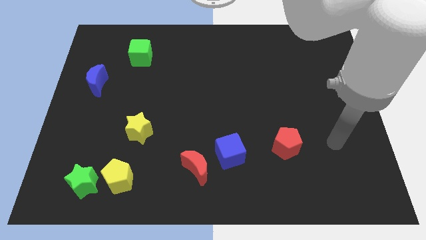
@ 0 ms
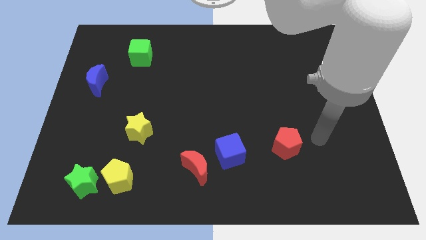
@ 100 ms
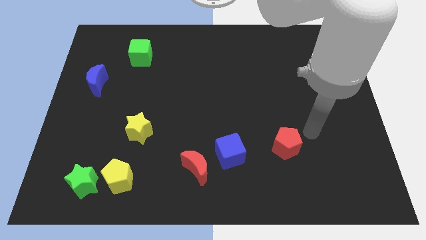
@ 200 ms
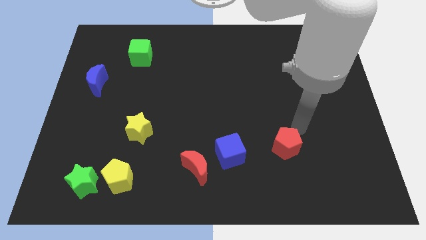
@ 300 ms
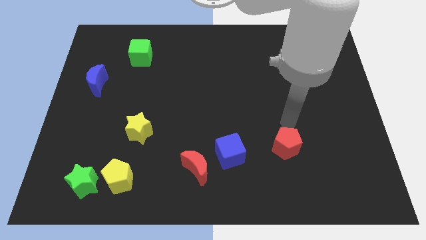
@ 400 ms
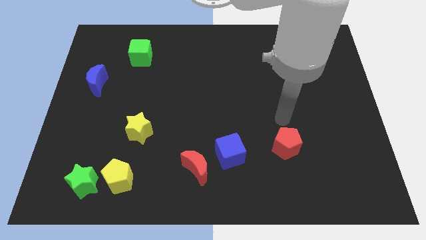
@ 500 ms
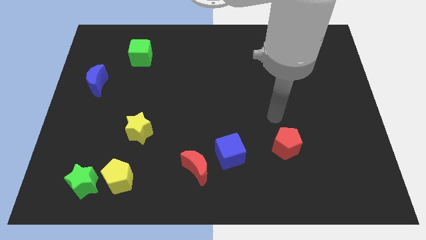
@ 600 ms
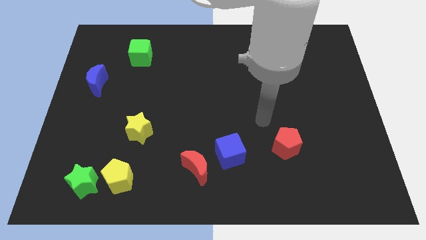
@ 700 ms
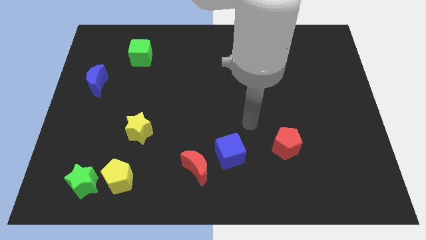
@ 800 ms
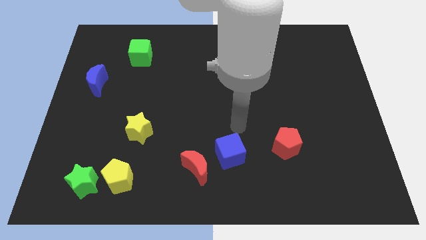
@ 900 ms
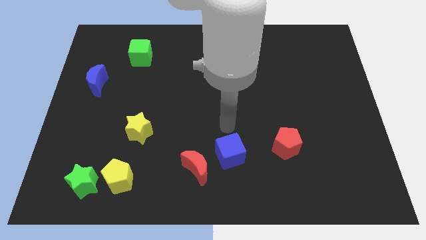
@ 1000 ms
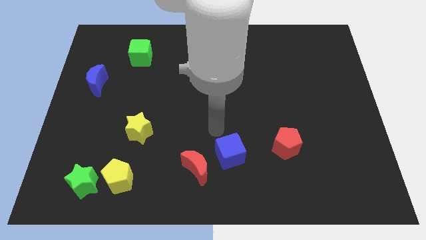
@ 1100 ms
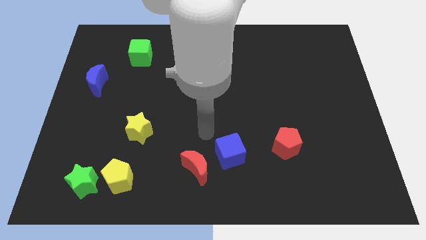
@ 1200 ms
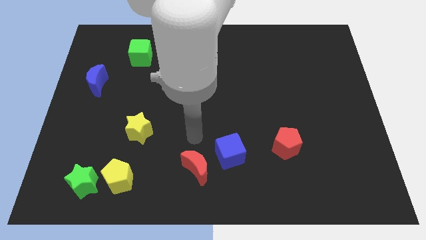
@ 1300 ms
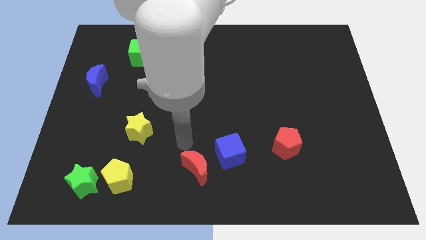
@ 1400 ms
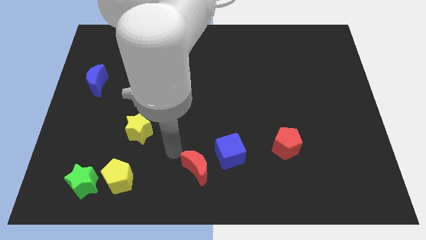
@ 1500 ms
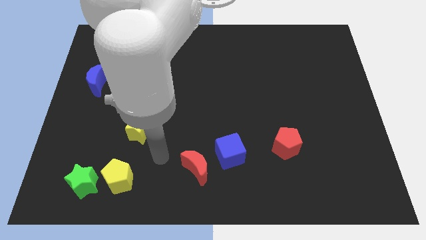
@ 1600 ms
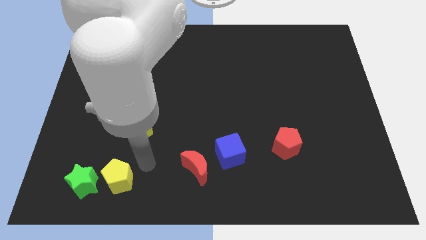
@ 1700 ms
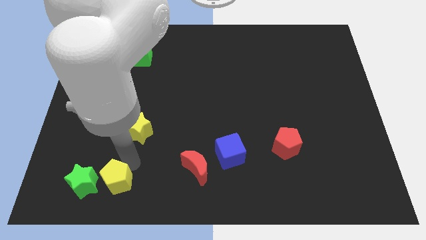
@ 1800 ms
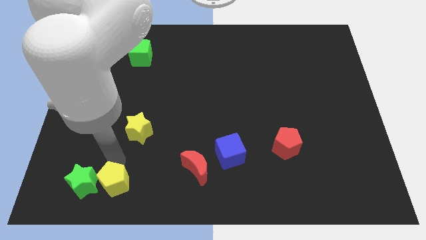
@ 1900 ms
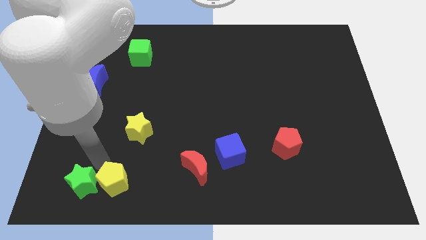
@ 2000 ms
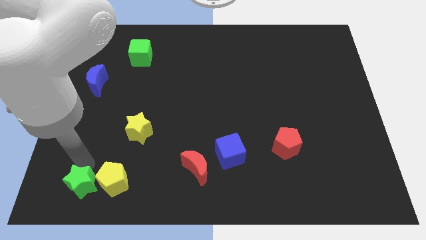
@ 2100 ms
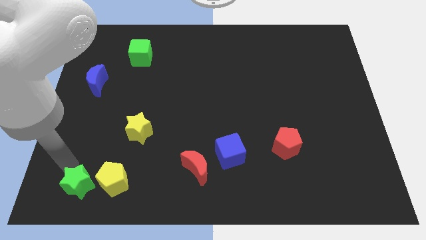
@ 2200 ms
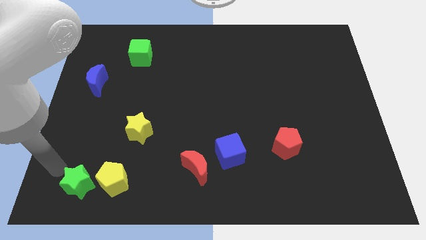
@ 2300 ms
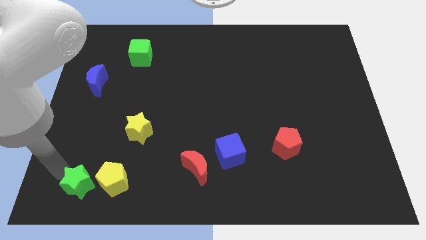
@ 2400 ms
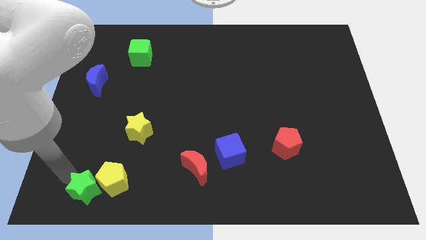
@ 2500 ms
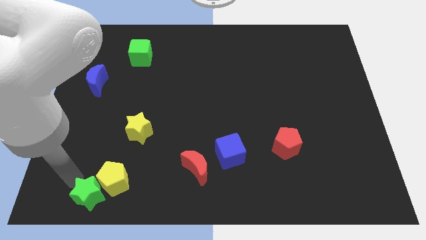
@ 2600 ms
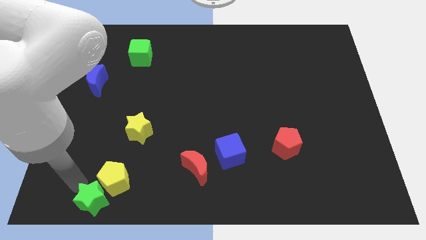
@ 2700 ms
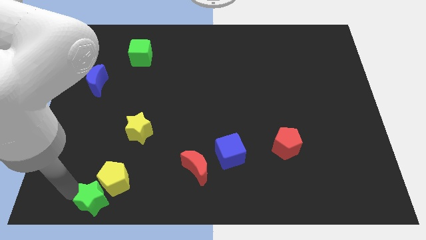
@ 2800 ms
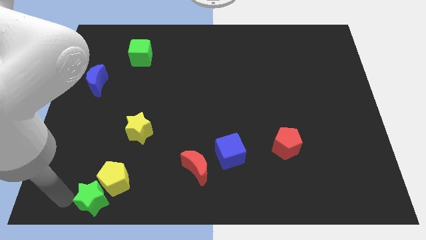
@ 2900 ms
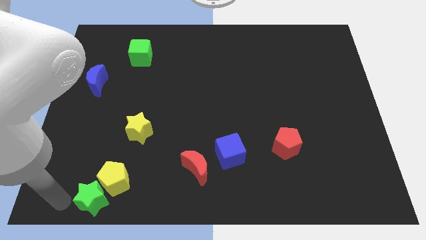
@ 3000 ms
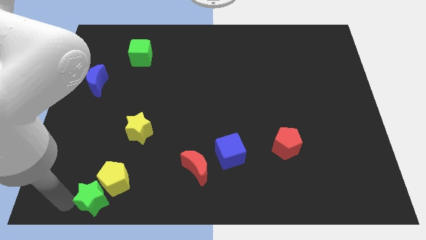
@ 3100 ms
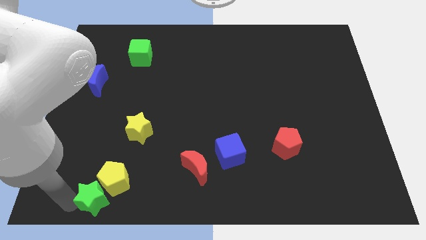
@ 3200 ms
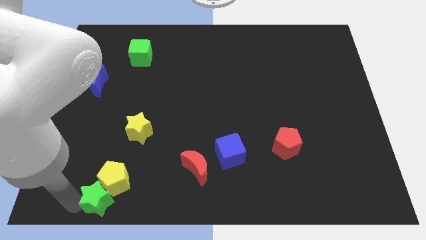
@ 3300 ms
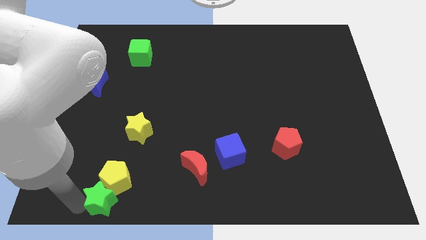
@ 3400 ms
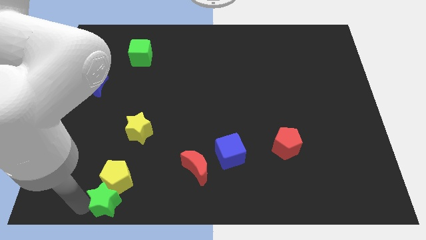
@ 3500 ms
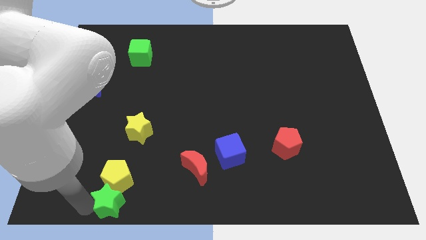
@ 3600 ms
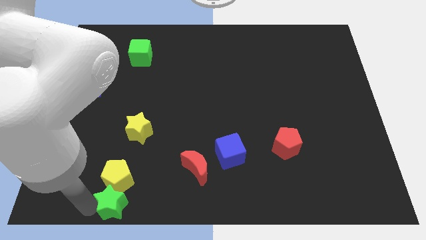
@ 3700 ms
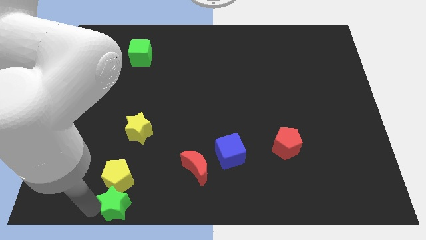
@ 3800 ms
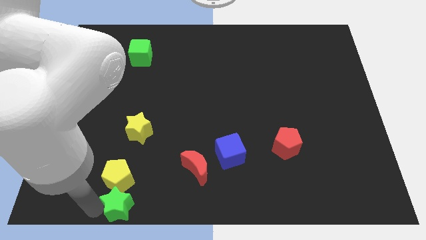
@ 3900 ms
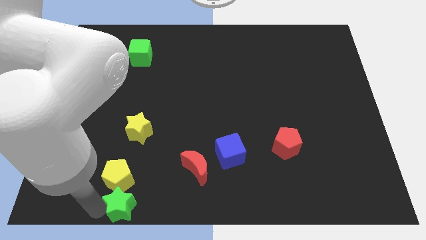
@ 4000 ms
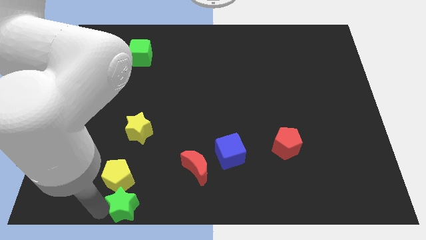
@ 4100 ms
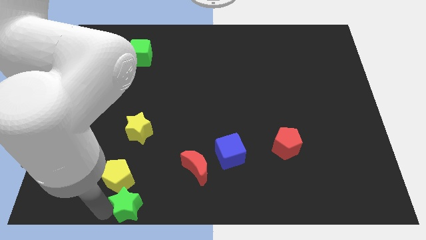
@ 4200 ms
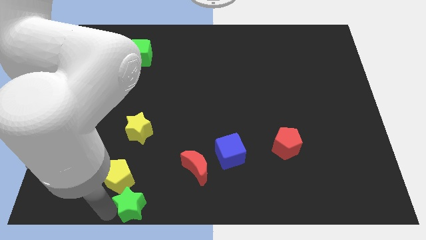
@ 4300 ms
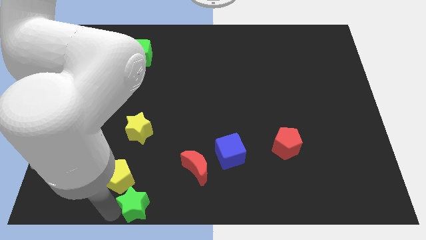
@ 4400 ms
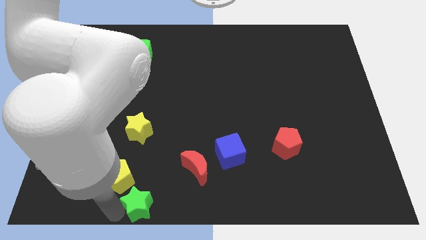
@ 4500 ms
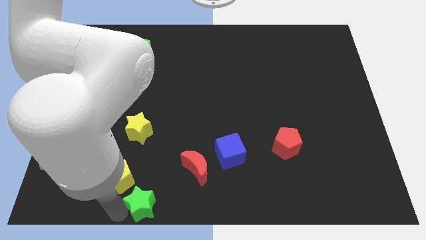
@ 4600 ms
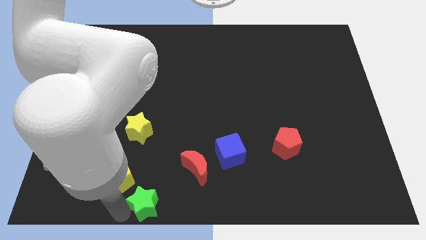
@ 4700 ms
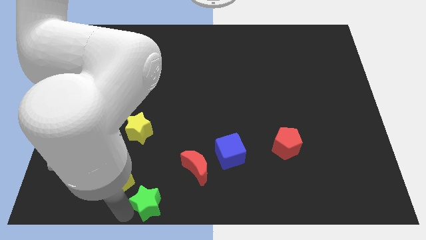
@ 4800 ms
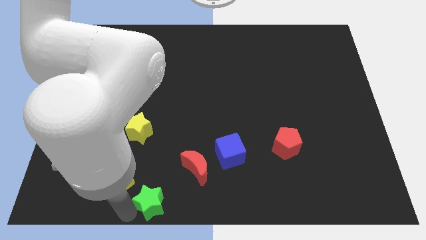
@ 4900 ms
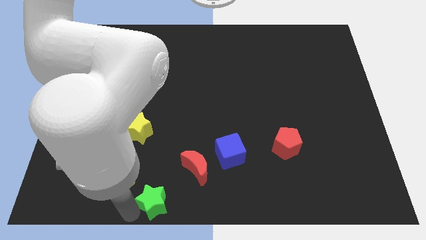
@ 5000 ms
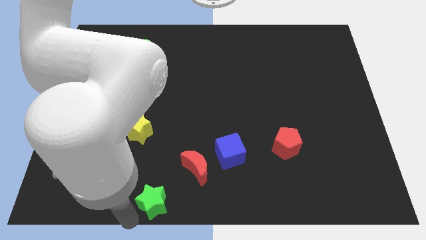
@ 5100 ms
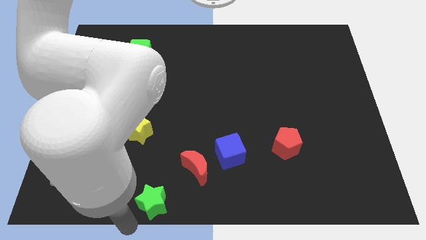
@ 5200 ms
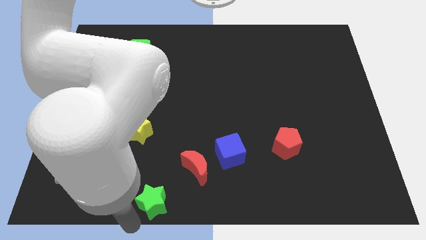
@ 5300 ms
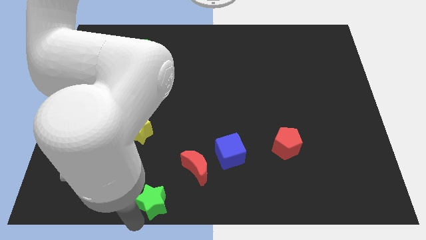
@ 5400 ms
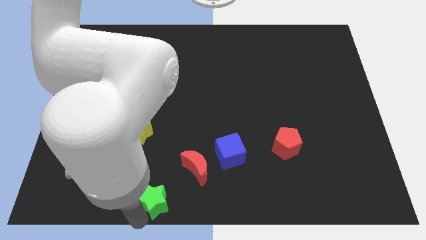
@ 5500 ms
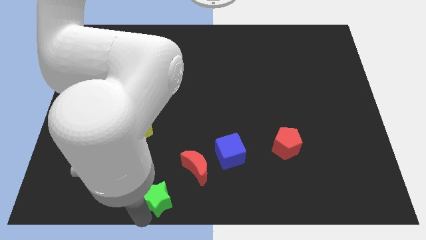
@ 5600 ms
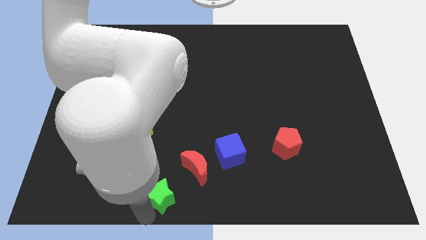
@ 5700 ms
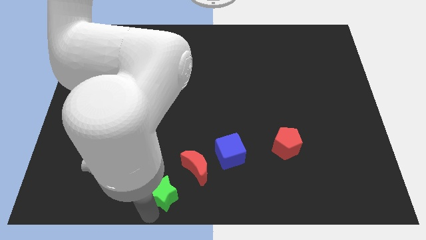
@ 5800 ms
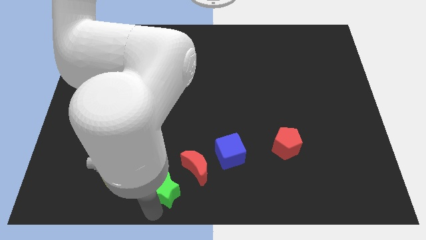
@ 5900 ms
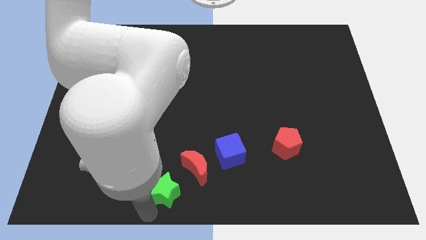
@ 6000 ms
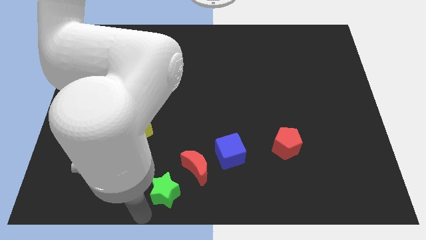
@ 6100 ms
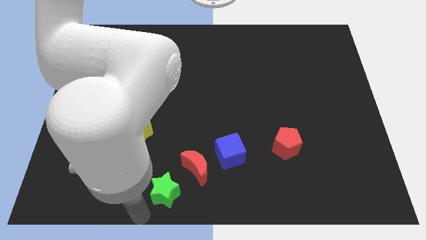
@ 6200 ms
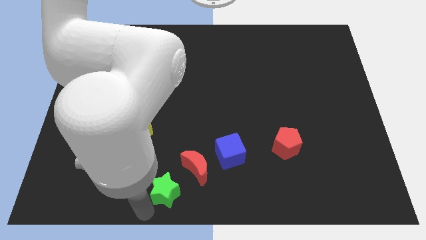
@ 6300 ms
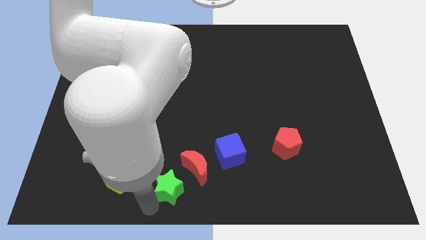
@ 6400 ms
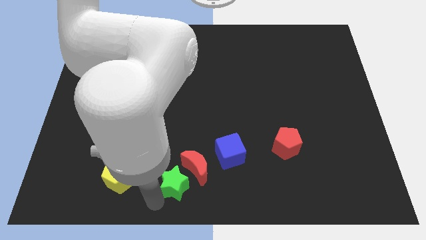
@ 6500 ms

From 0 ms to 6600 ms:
slide the green star next to the red moon

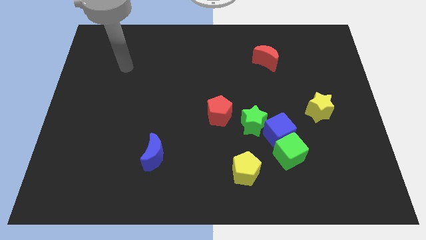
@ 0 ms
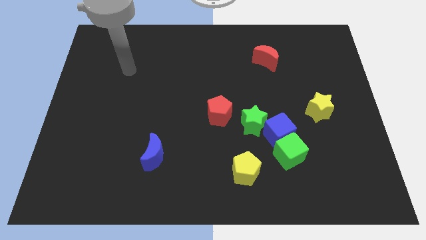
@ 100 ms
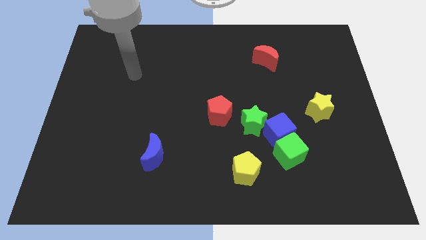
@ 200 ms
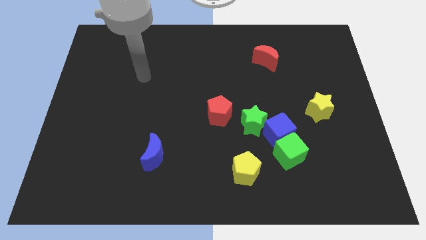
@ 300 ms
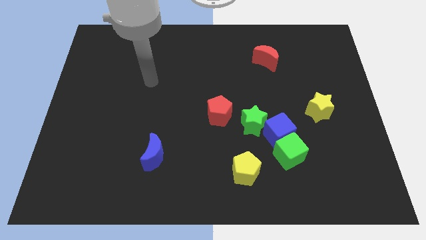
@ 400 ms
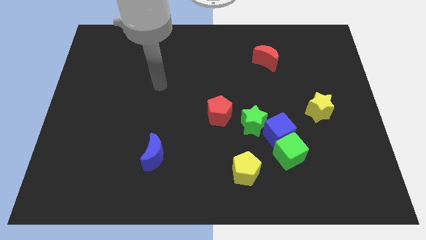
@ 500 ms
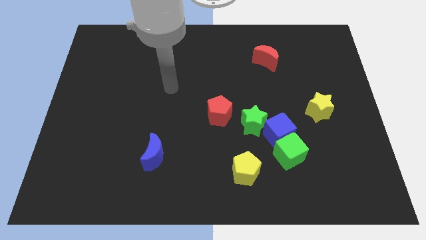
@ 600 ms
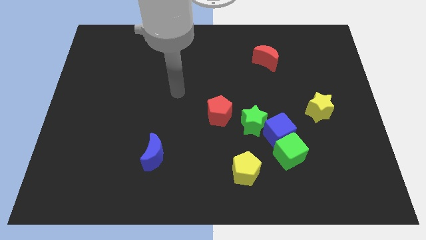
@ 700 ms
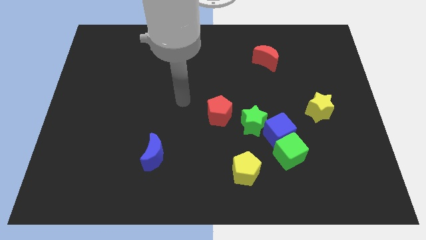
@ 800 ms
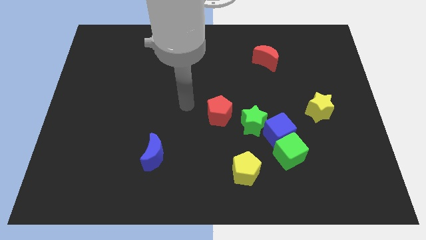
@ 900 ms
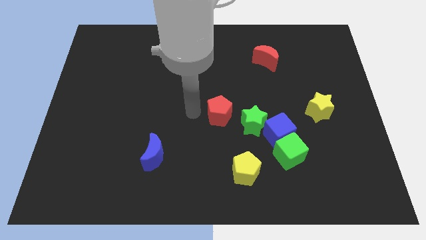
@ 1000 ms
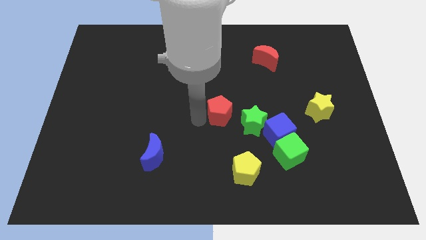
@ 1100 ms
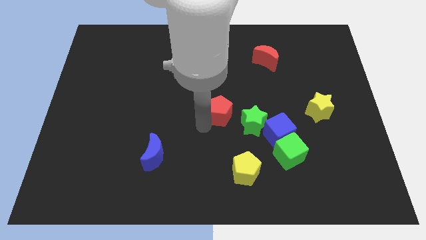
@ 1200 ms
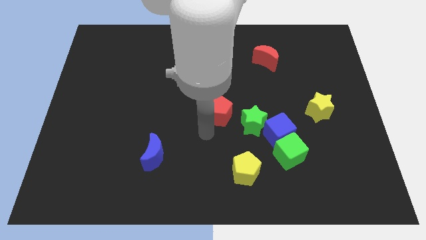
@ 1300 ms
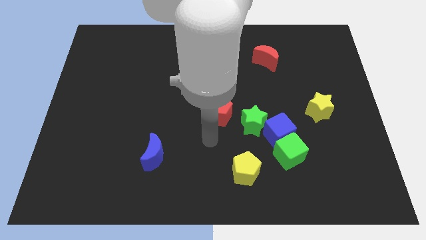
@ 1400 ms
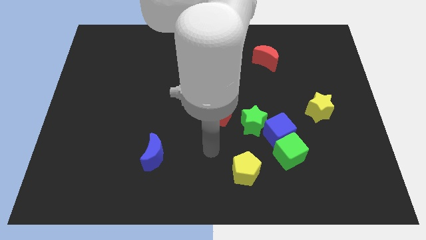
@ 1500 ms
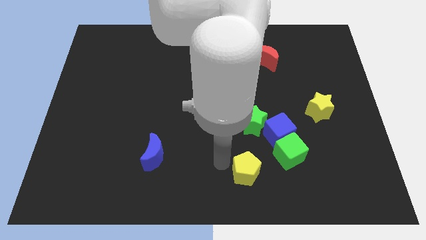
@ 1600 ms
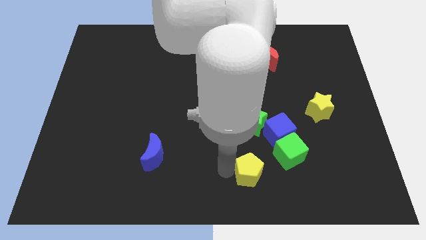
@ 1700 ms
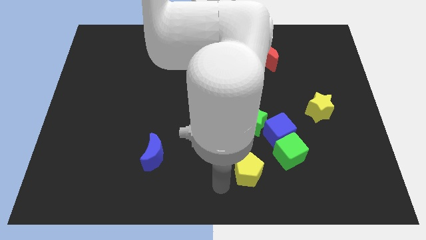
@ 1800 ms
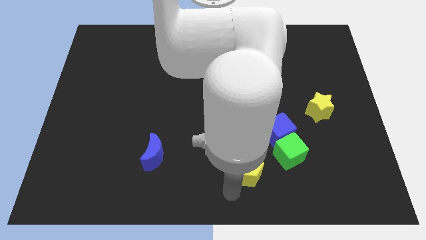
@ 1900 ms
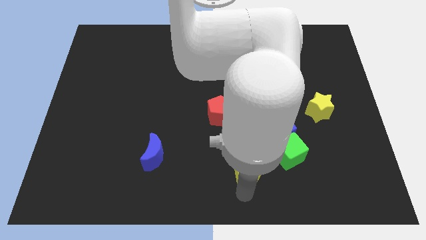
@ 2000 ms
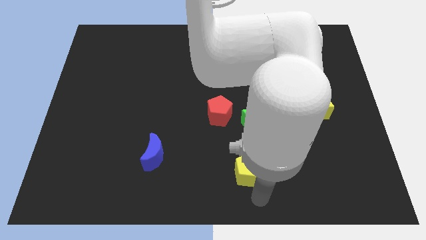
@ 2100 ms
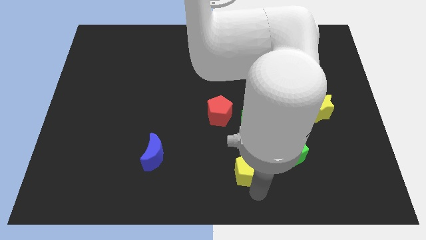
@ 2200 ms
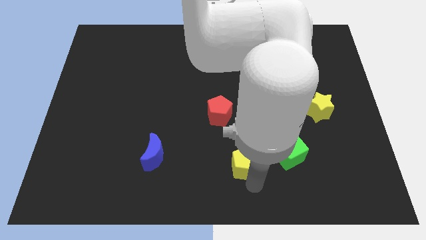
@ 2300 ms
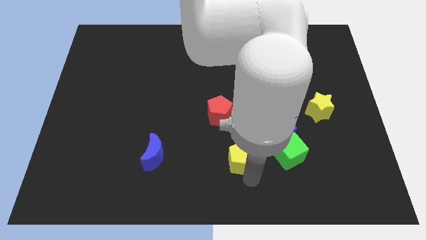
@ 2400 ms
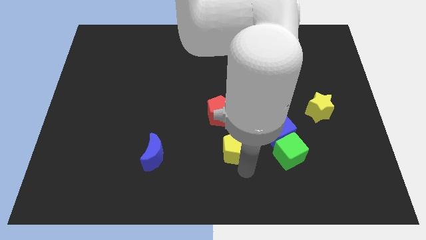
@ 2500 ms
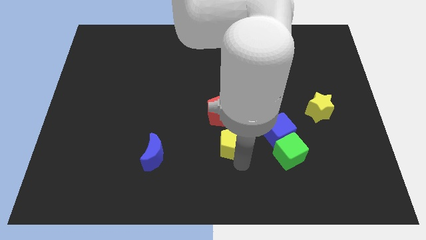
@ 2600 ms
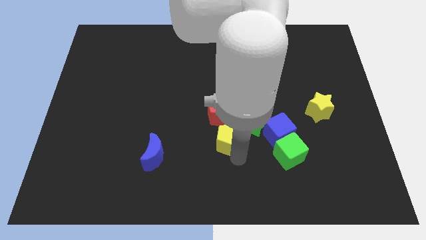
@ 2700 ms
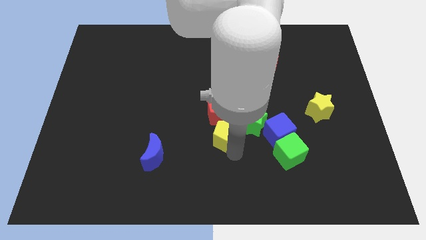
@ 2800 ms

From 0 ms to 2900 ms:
move the yellow pentagon towards the red pentagon
